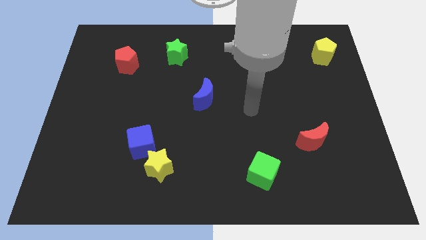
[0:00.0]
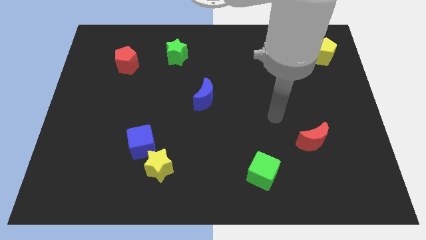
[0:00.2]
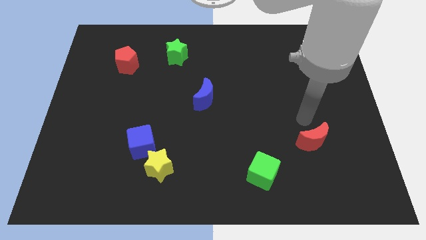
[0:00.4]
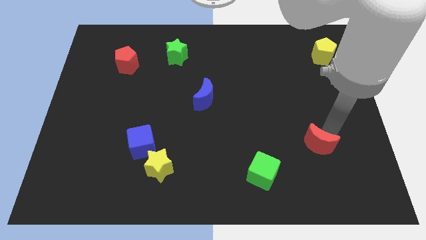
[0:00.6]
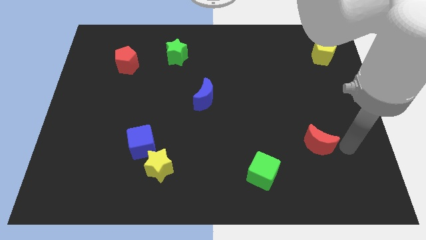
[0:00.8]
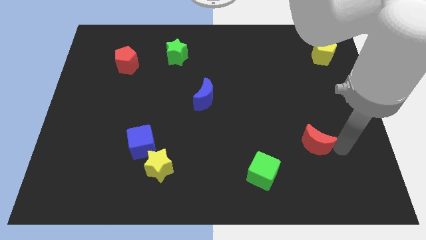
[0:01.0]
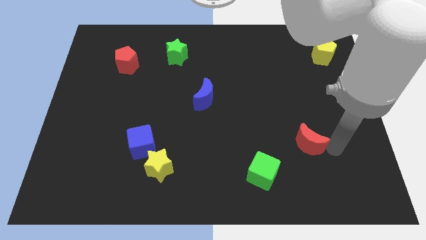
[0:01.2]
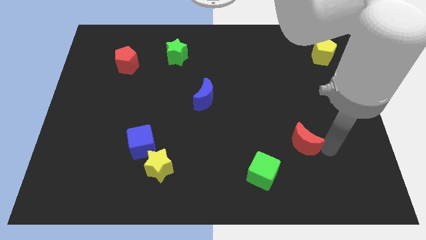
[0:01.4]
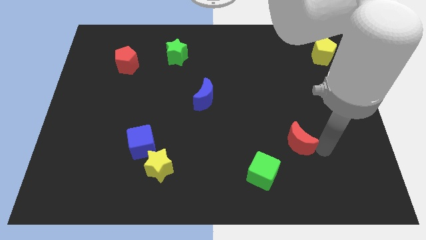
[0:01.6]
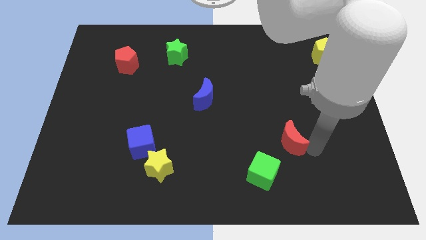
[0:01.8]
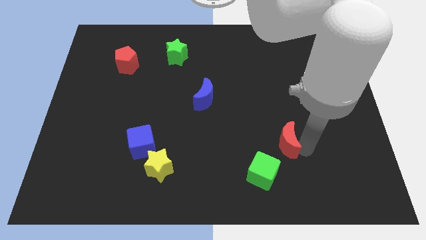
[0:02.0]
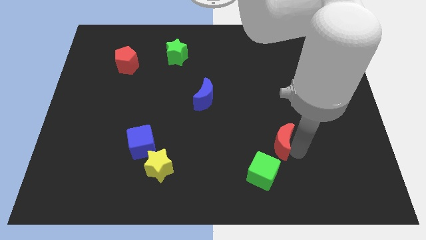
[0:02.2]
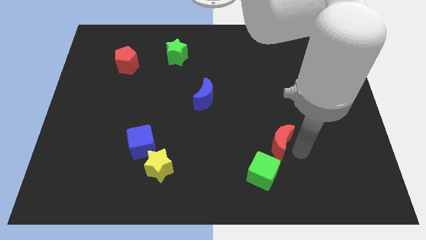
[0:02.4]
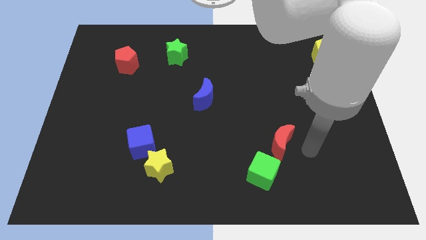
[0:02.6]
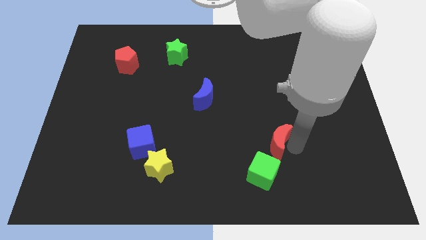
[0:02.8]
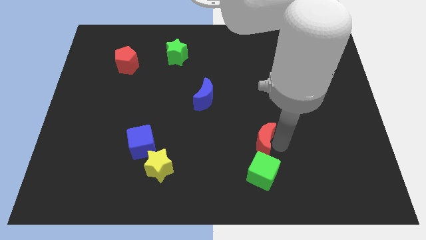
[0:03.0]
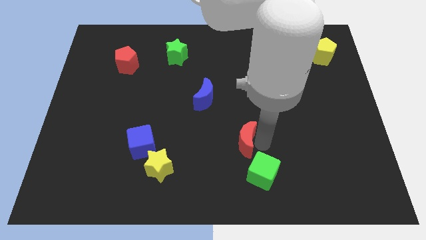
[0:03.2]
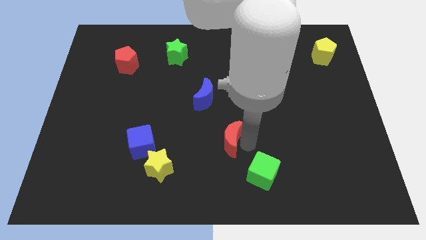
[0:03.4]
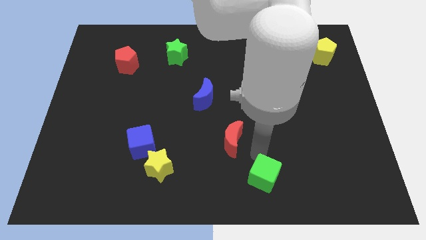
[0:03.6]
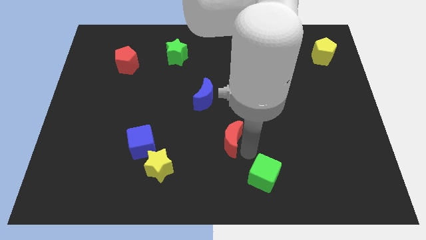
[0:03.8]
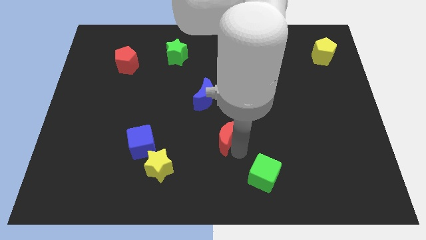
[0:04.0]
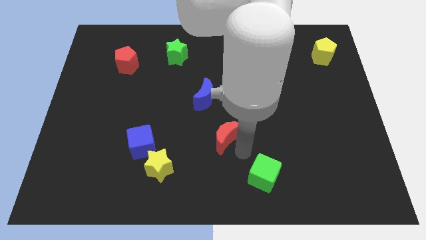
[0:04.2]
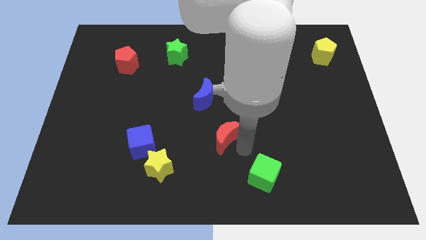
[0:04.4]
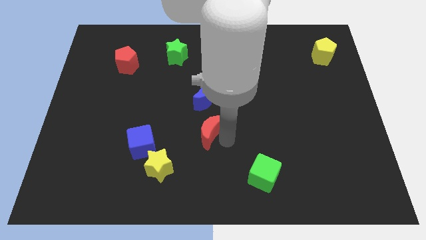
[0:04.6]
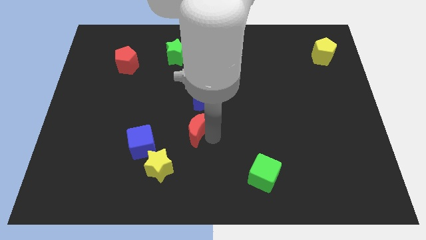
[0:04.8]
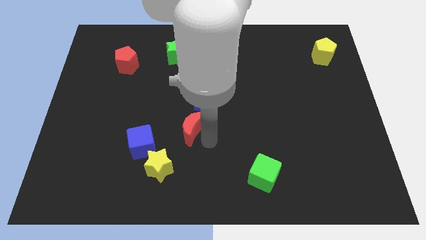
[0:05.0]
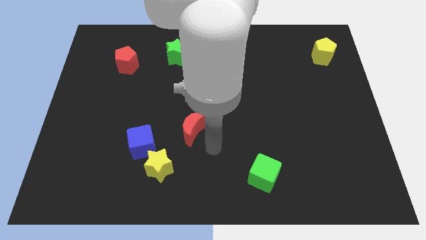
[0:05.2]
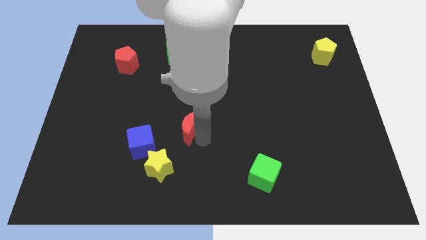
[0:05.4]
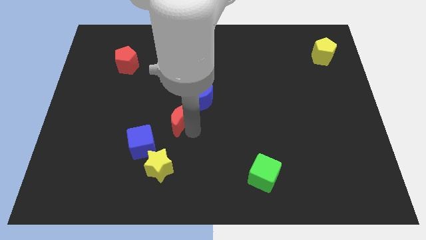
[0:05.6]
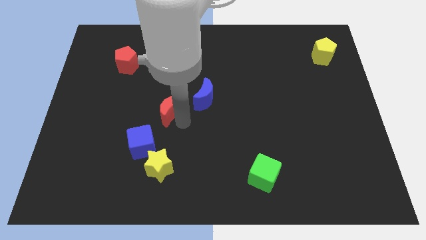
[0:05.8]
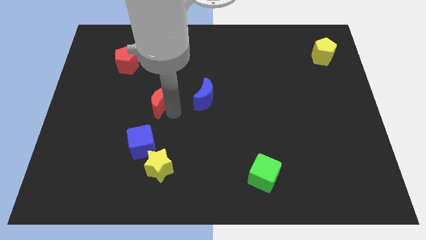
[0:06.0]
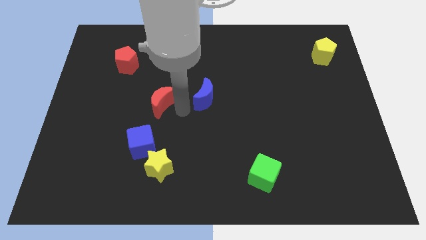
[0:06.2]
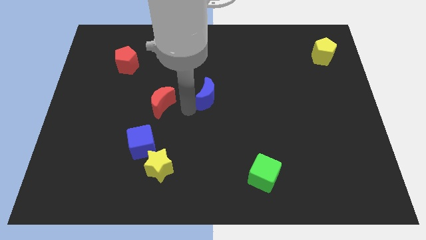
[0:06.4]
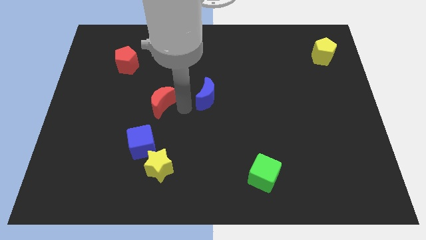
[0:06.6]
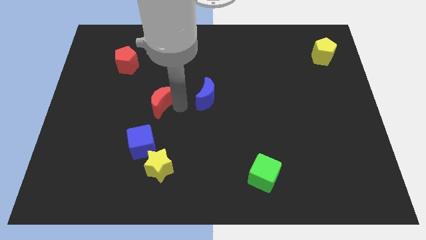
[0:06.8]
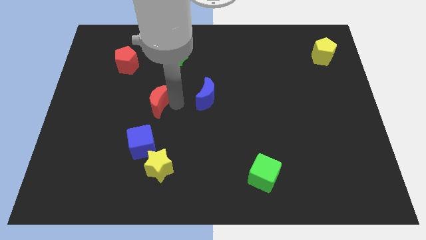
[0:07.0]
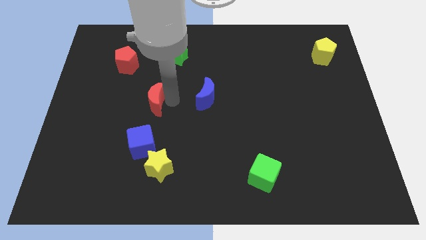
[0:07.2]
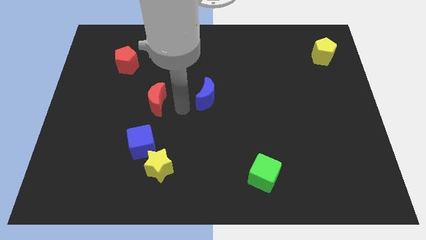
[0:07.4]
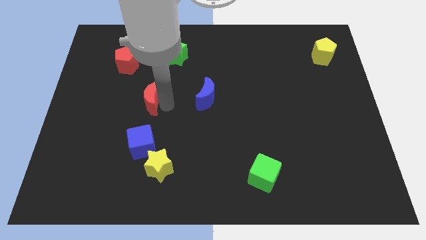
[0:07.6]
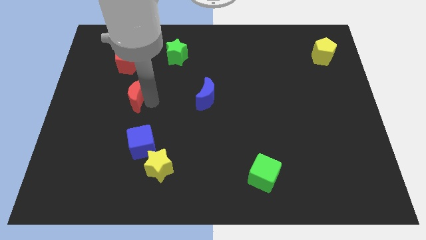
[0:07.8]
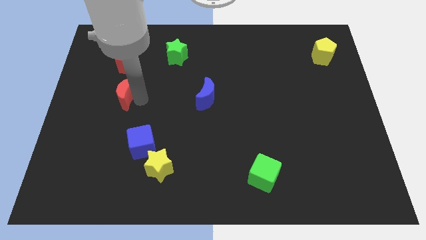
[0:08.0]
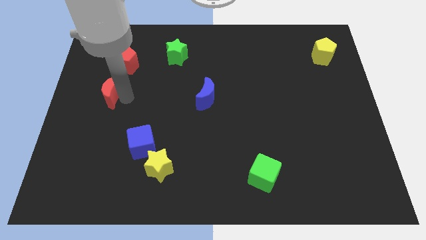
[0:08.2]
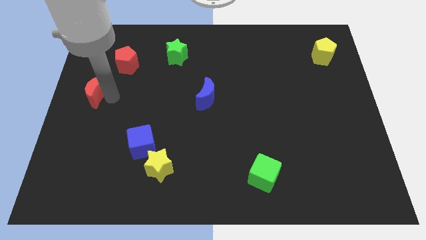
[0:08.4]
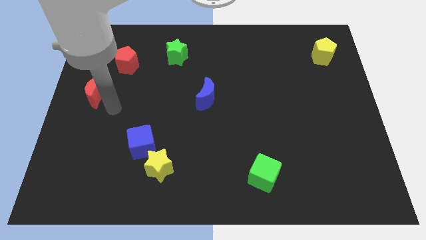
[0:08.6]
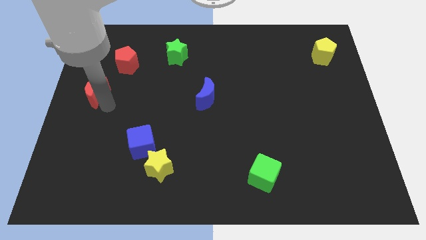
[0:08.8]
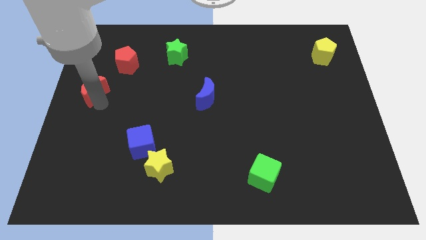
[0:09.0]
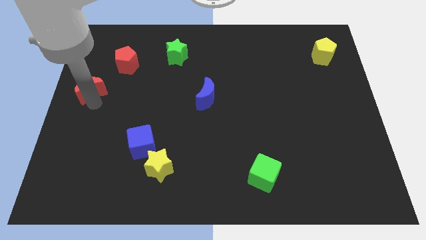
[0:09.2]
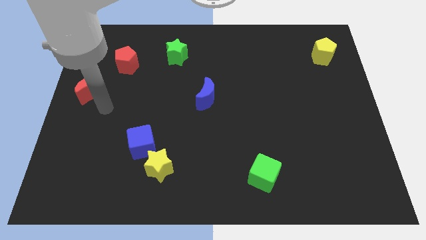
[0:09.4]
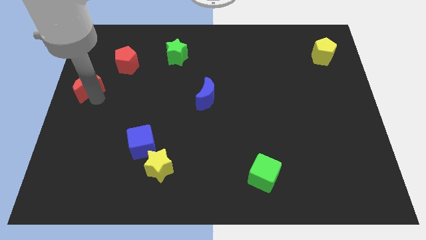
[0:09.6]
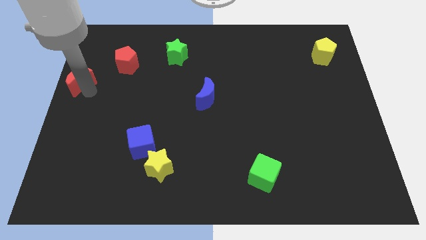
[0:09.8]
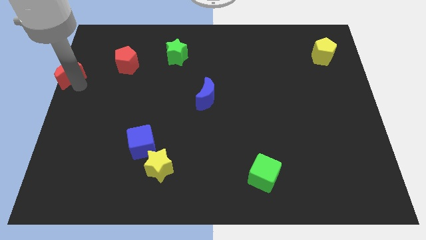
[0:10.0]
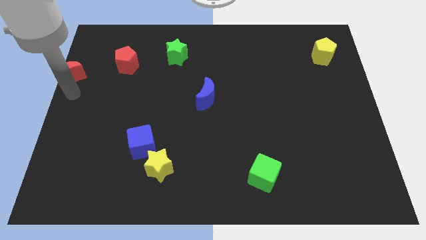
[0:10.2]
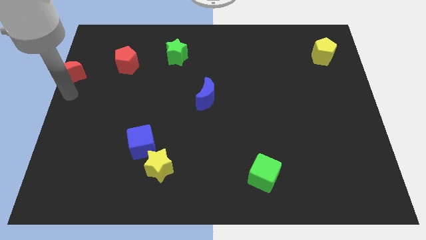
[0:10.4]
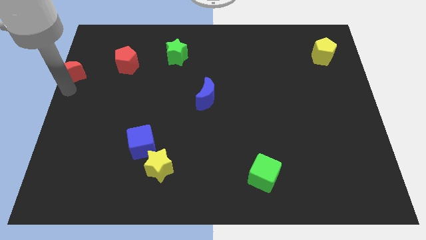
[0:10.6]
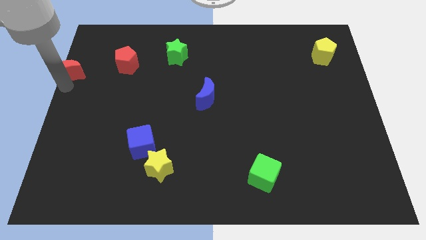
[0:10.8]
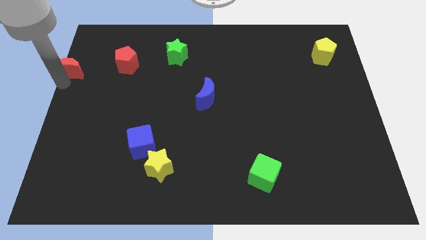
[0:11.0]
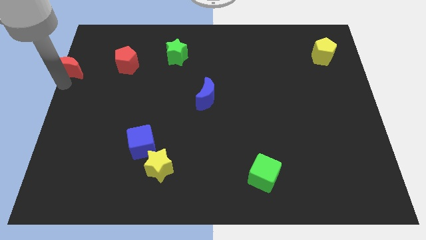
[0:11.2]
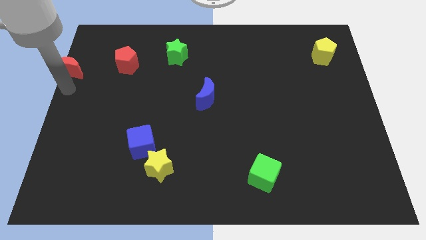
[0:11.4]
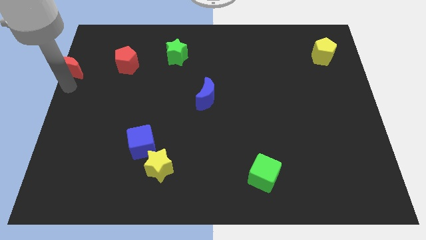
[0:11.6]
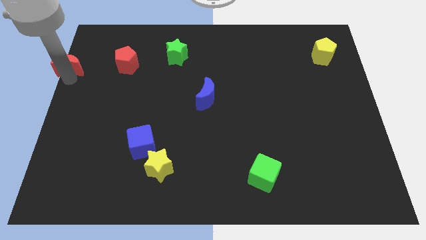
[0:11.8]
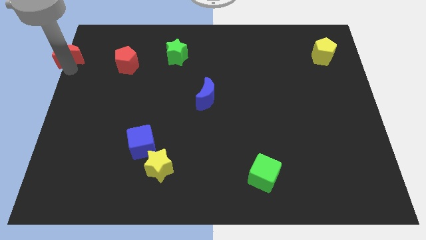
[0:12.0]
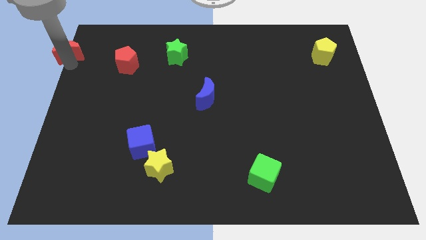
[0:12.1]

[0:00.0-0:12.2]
put the red moon to the top left

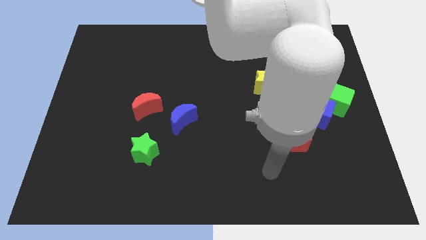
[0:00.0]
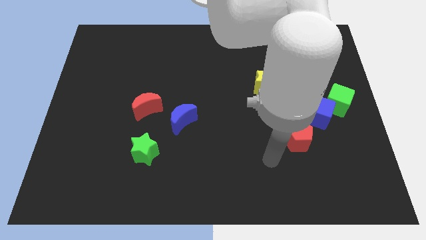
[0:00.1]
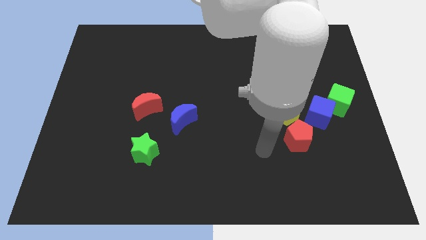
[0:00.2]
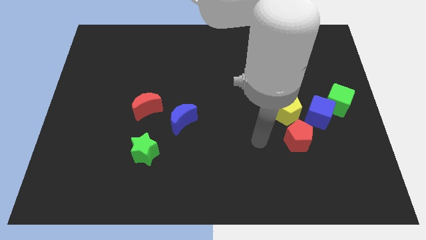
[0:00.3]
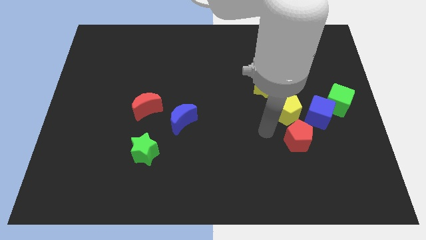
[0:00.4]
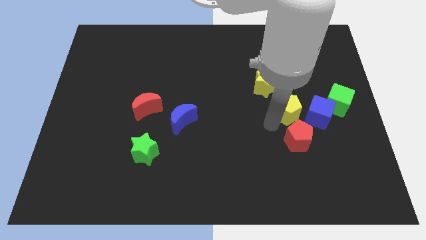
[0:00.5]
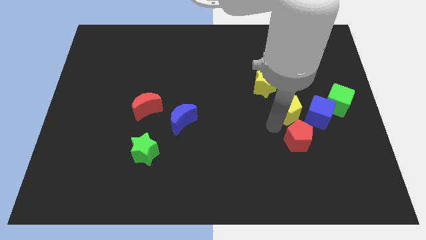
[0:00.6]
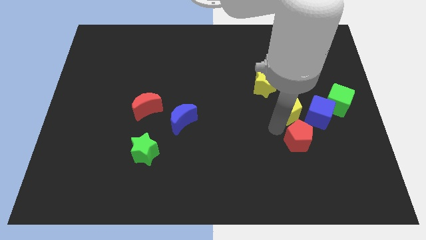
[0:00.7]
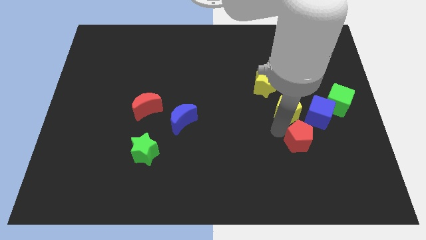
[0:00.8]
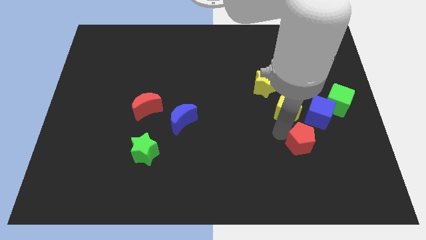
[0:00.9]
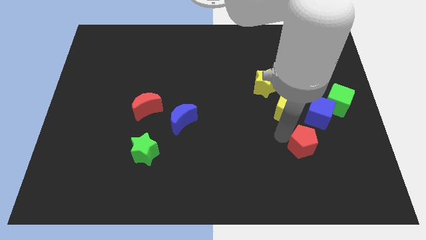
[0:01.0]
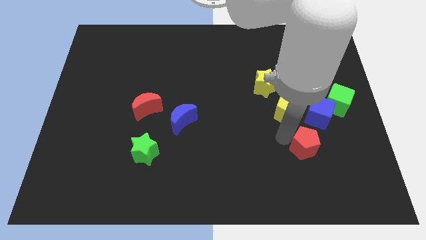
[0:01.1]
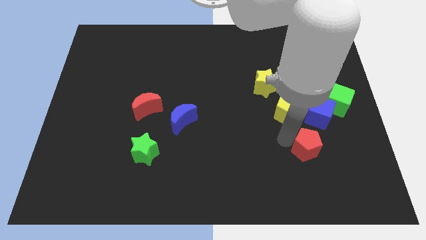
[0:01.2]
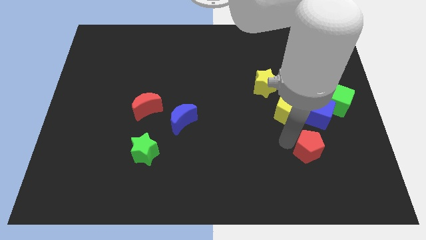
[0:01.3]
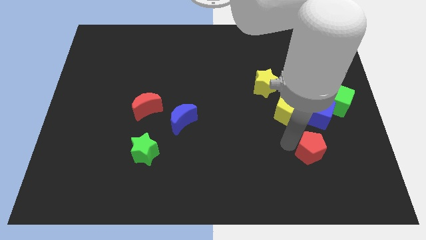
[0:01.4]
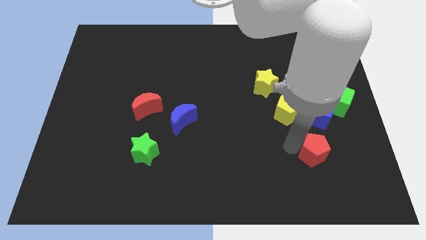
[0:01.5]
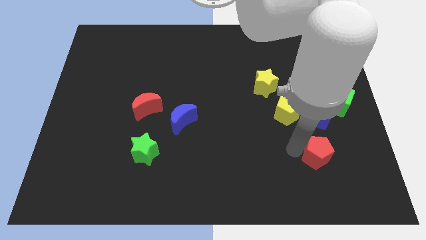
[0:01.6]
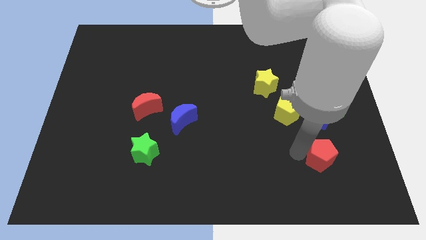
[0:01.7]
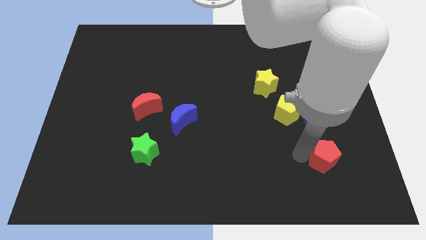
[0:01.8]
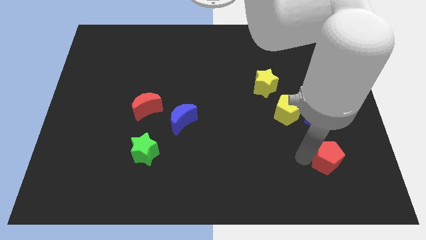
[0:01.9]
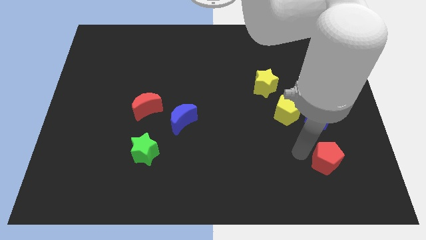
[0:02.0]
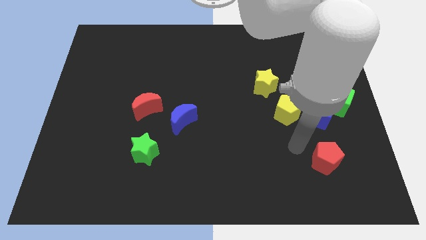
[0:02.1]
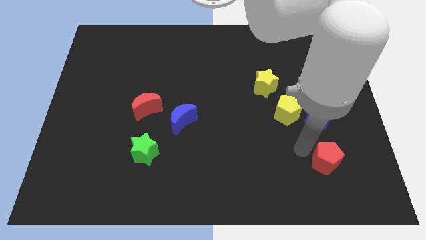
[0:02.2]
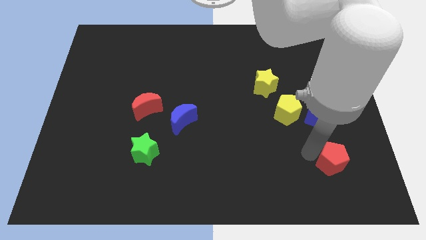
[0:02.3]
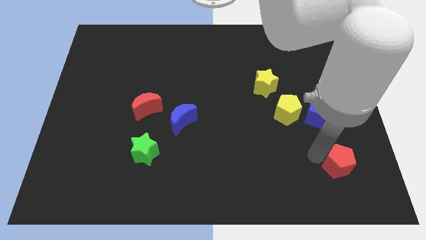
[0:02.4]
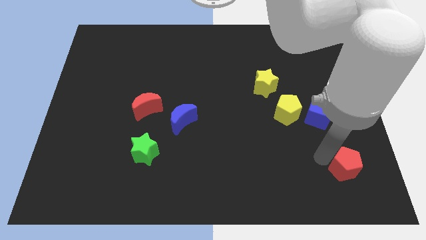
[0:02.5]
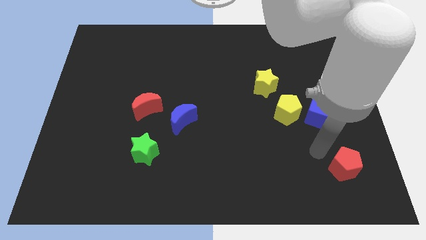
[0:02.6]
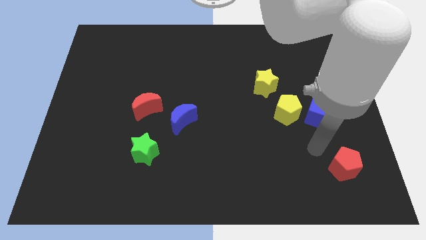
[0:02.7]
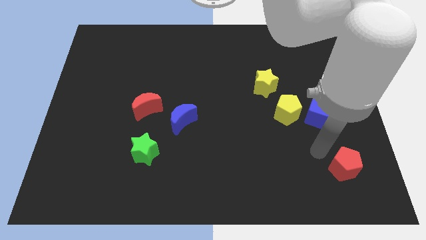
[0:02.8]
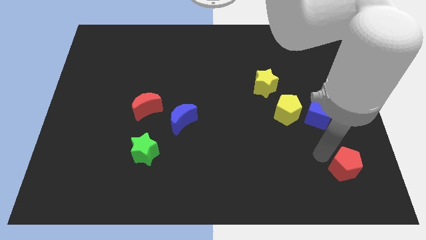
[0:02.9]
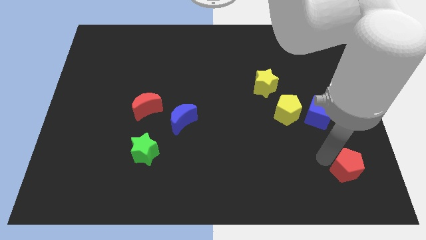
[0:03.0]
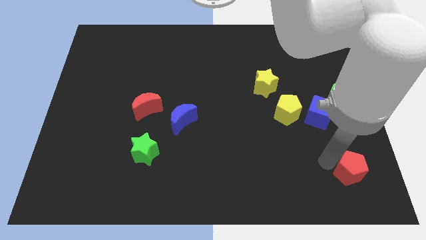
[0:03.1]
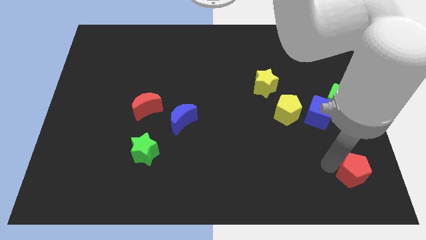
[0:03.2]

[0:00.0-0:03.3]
put the red pentagon to the bottom right of the board
